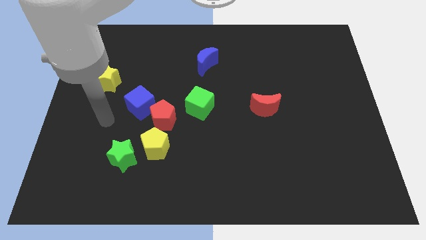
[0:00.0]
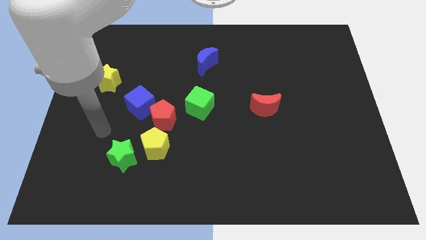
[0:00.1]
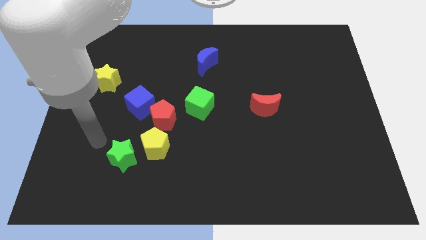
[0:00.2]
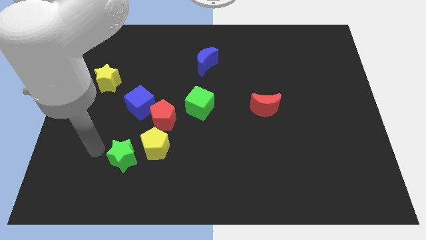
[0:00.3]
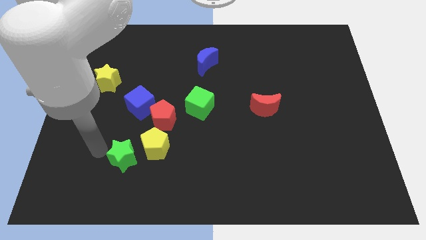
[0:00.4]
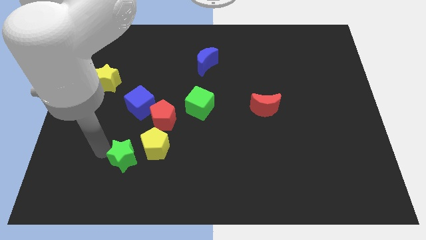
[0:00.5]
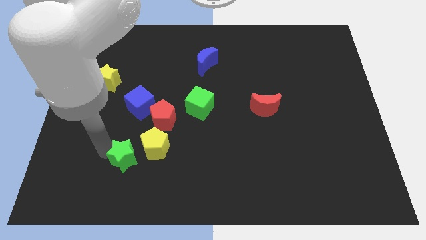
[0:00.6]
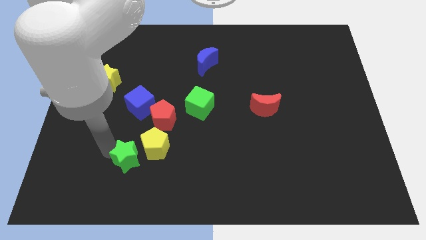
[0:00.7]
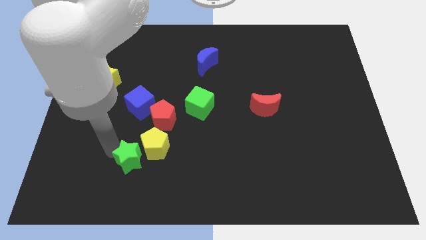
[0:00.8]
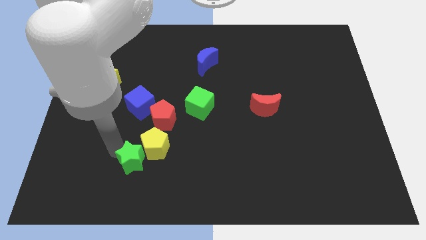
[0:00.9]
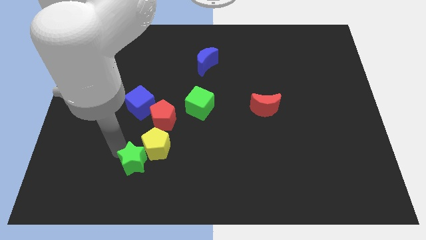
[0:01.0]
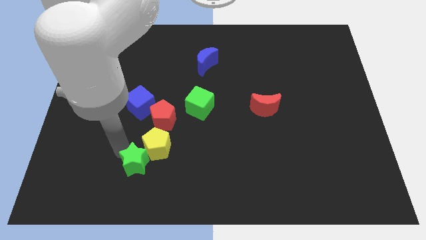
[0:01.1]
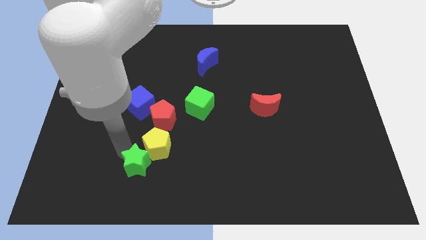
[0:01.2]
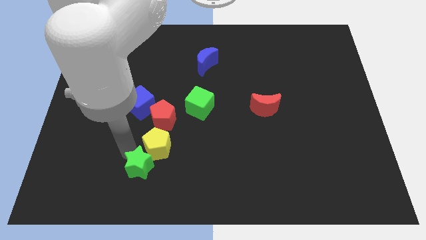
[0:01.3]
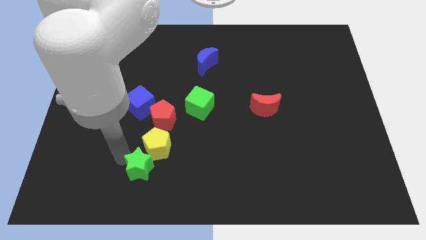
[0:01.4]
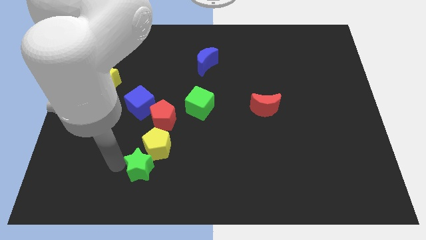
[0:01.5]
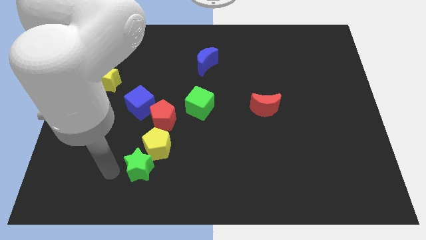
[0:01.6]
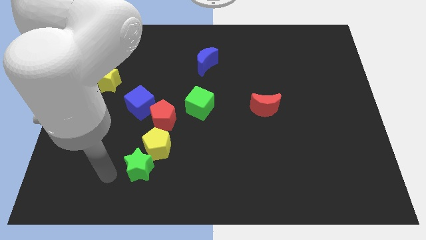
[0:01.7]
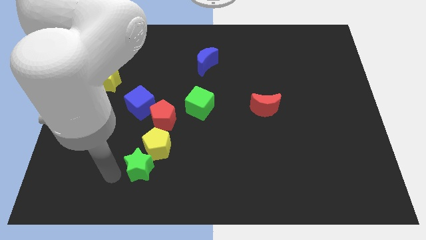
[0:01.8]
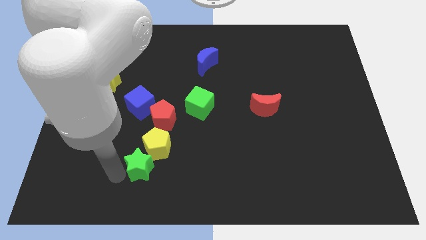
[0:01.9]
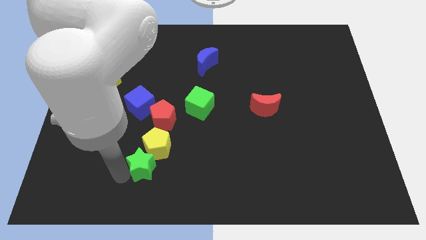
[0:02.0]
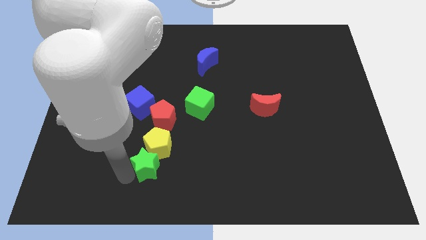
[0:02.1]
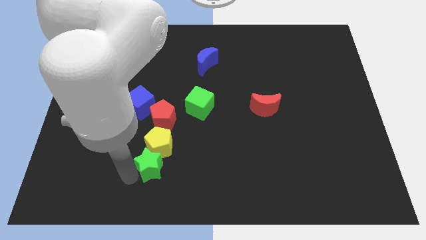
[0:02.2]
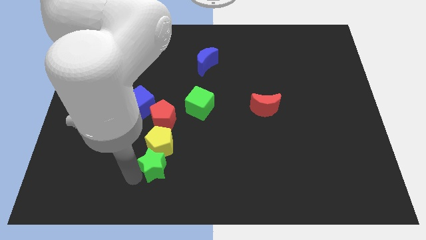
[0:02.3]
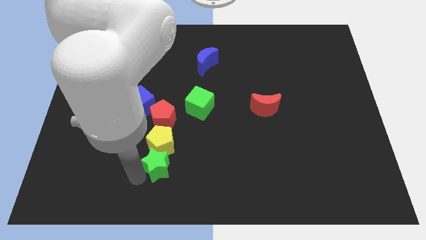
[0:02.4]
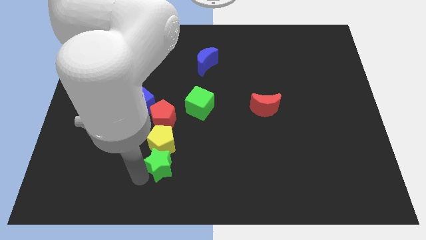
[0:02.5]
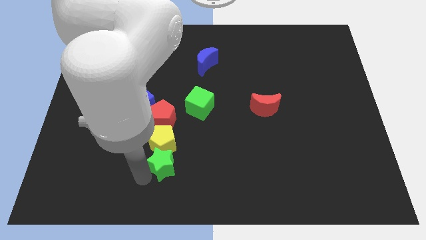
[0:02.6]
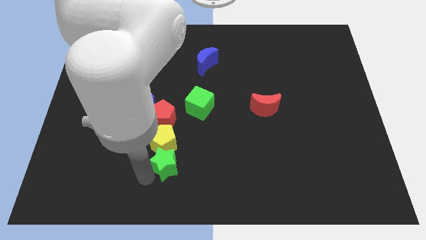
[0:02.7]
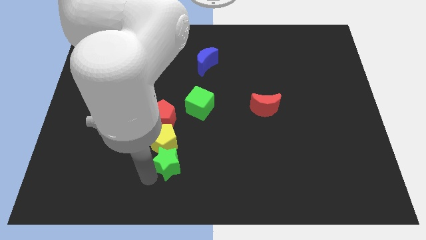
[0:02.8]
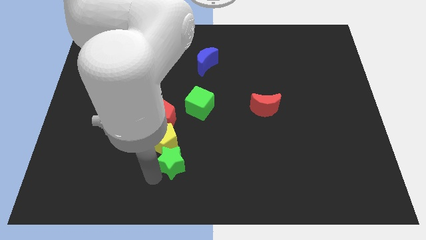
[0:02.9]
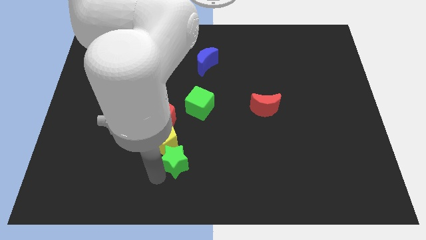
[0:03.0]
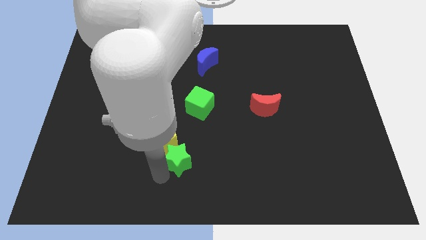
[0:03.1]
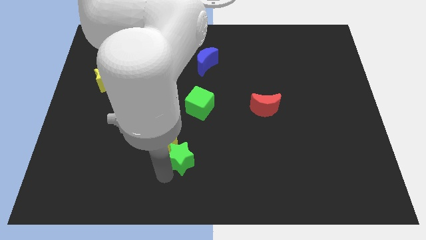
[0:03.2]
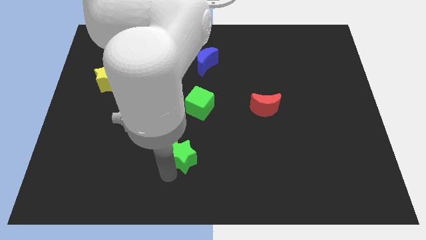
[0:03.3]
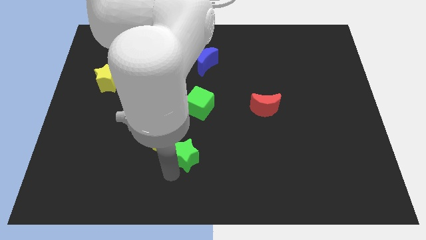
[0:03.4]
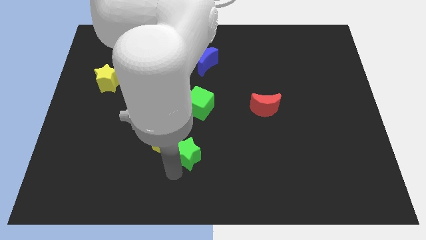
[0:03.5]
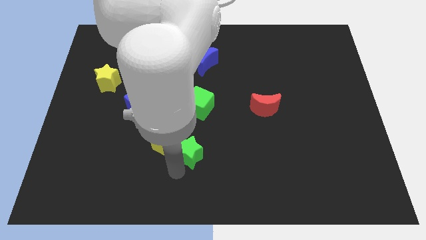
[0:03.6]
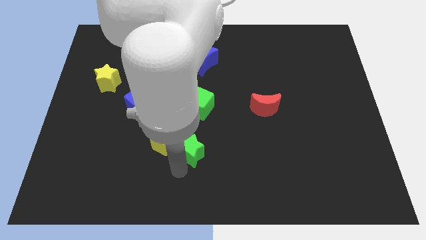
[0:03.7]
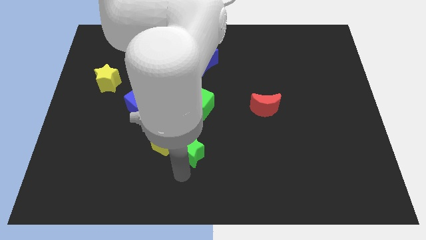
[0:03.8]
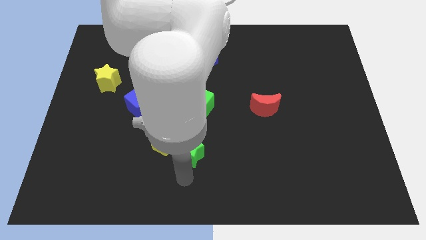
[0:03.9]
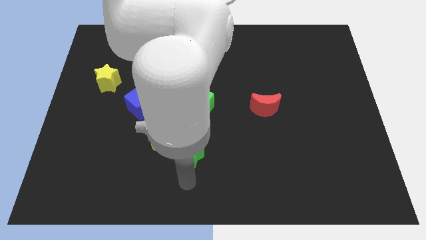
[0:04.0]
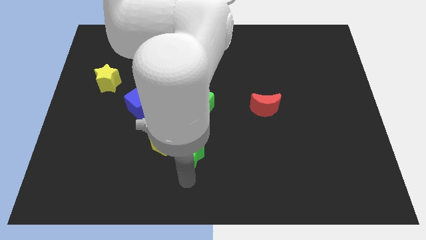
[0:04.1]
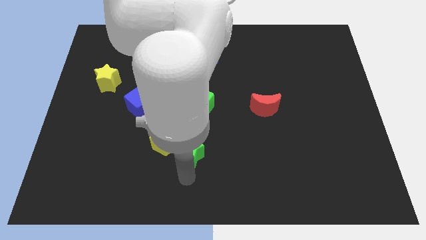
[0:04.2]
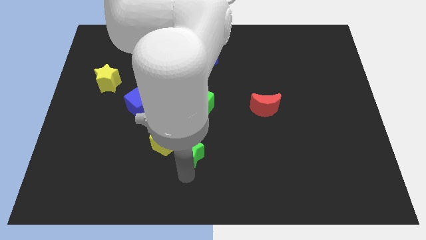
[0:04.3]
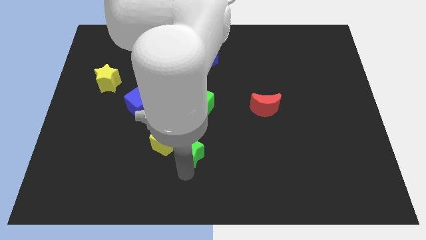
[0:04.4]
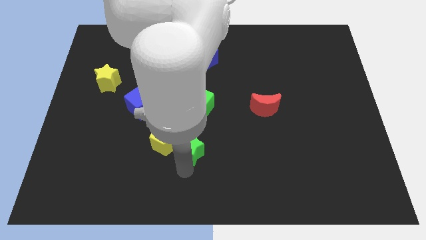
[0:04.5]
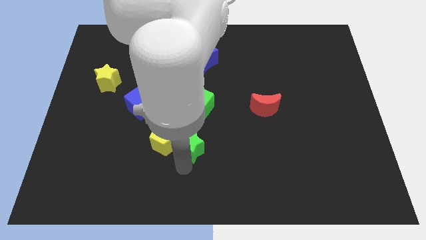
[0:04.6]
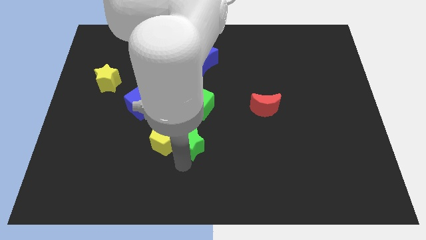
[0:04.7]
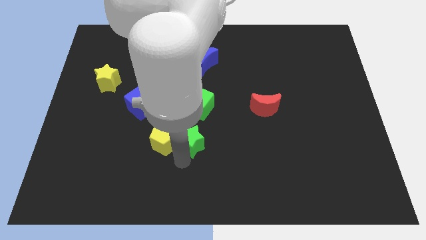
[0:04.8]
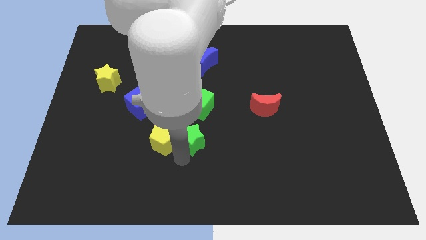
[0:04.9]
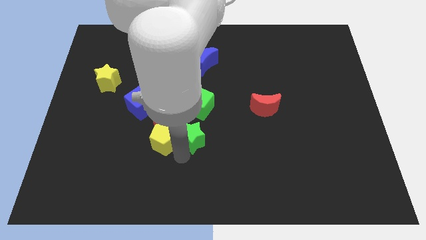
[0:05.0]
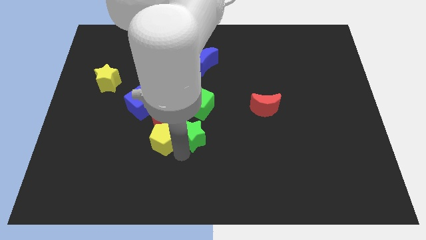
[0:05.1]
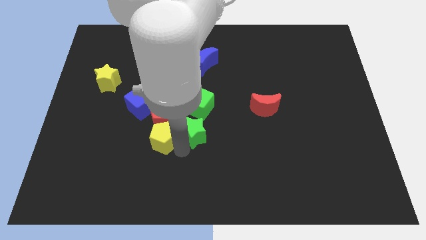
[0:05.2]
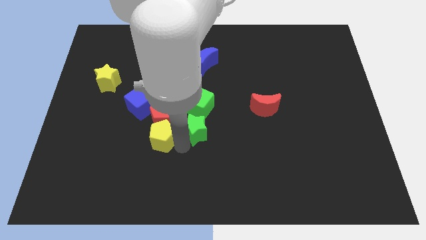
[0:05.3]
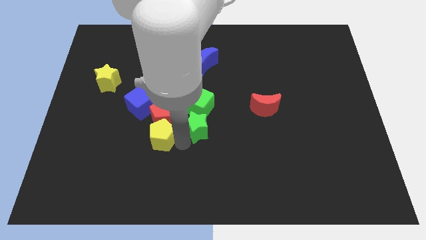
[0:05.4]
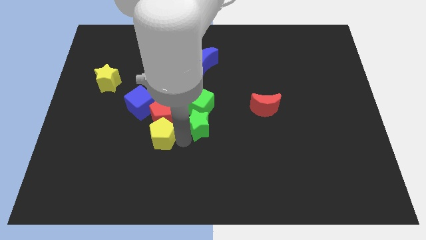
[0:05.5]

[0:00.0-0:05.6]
put the green star next to the green cube

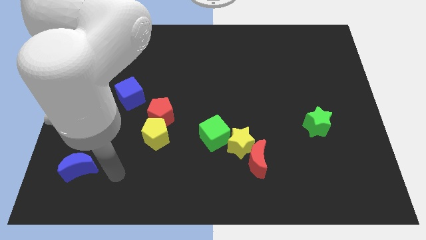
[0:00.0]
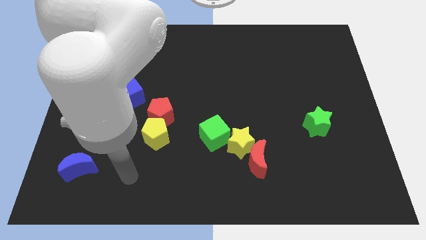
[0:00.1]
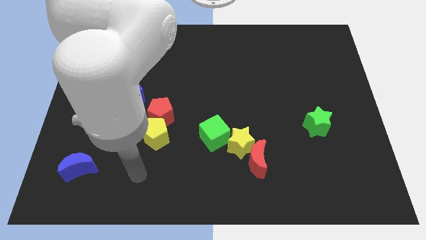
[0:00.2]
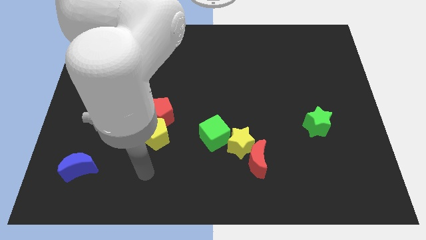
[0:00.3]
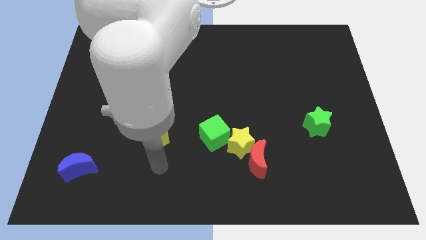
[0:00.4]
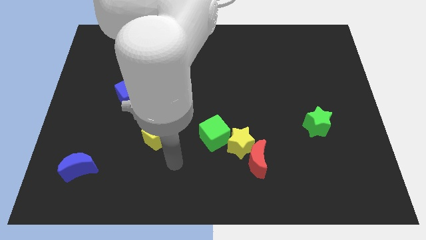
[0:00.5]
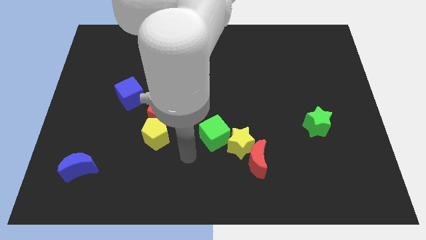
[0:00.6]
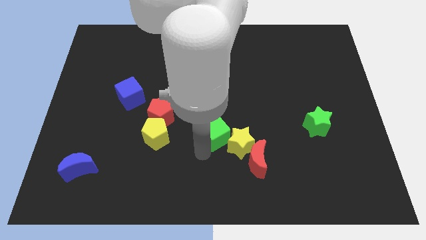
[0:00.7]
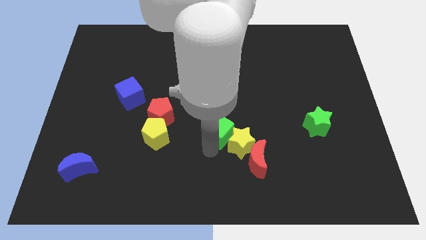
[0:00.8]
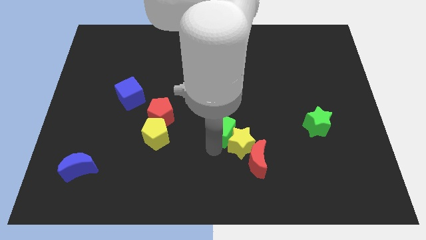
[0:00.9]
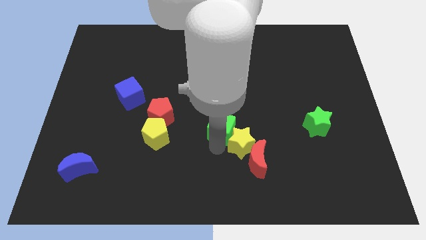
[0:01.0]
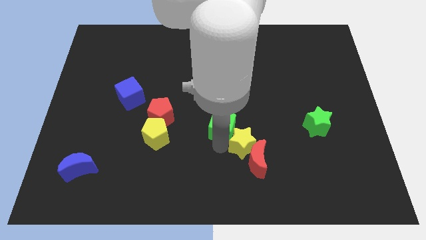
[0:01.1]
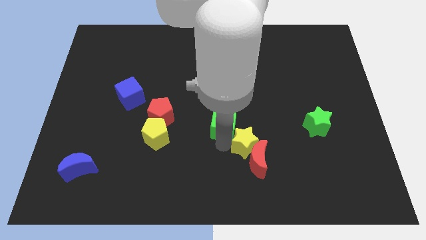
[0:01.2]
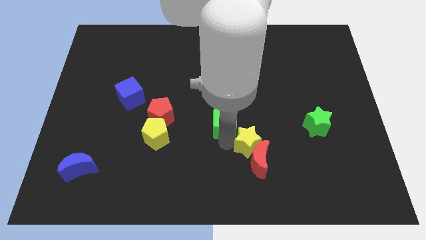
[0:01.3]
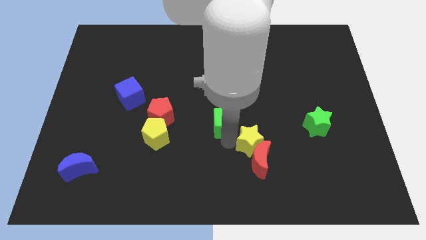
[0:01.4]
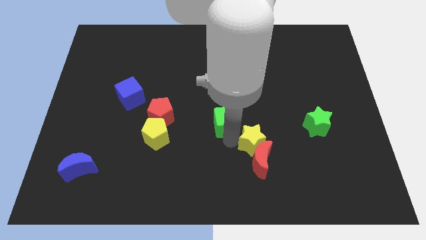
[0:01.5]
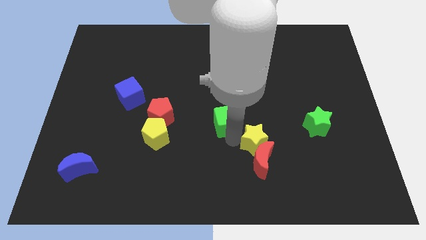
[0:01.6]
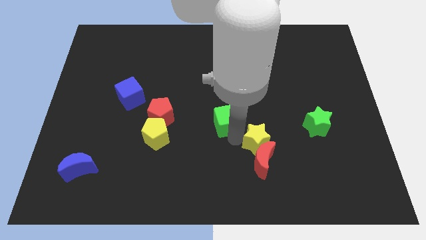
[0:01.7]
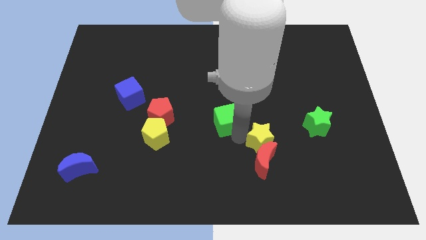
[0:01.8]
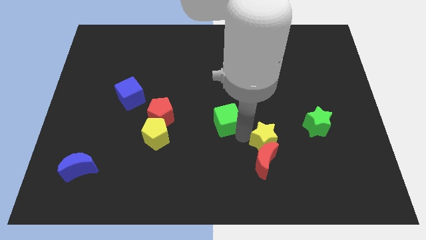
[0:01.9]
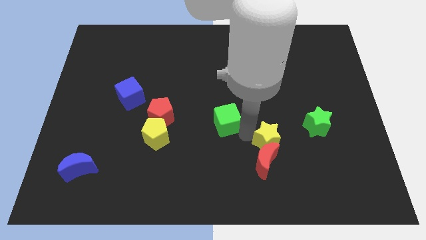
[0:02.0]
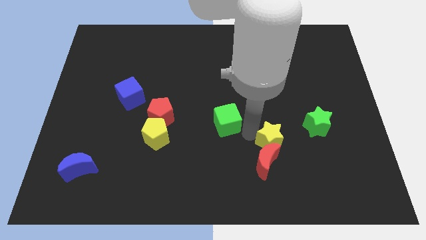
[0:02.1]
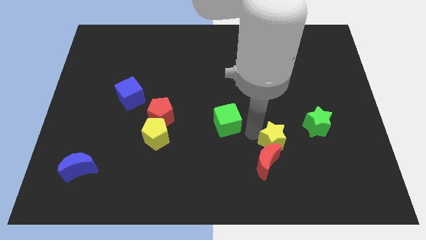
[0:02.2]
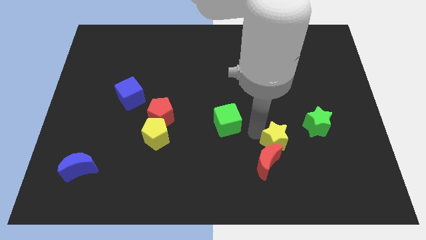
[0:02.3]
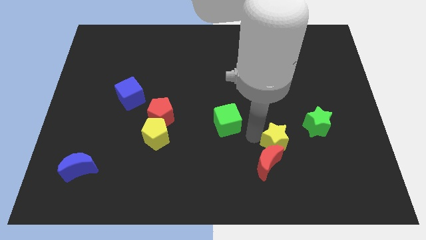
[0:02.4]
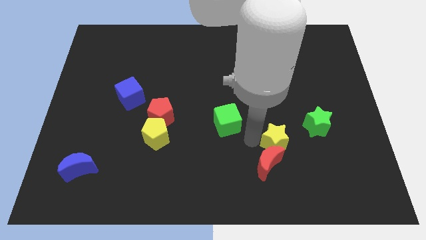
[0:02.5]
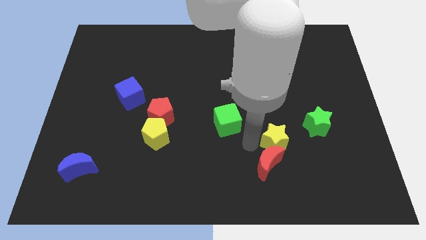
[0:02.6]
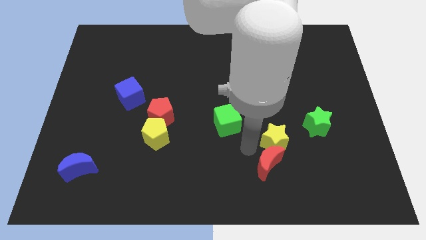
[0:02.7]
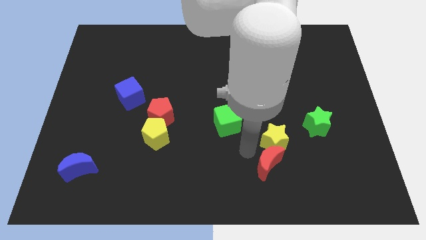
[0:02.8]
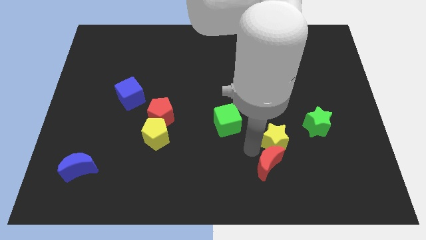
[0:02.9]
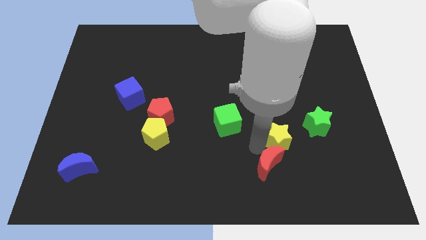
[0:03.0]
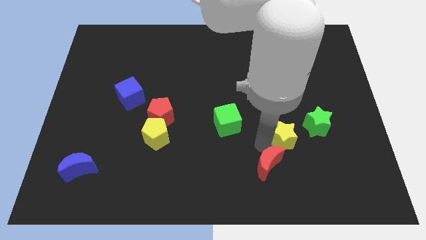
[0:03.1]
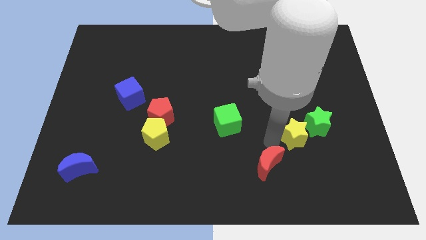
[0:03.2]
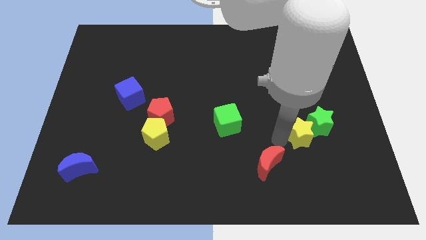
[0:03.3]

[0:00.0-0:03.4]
slide the yellow star next to the green star
